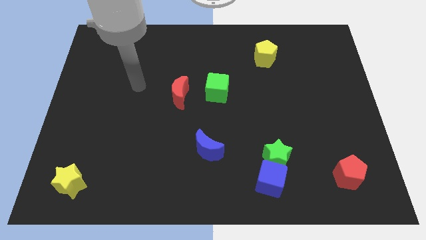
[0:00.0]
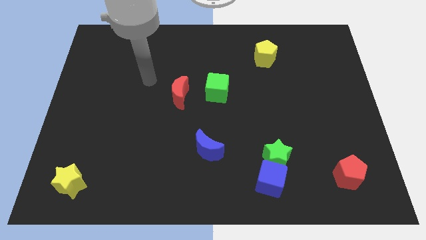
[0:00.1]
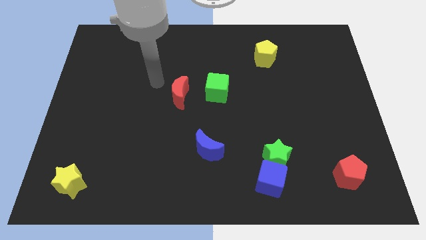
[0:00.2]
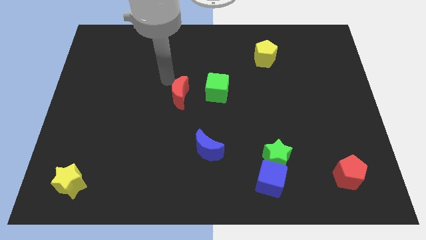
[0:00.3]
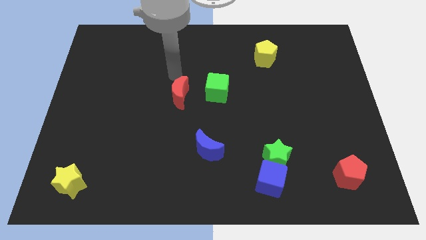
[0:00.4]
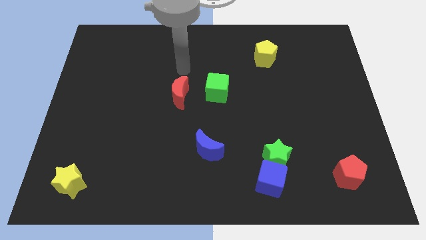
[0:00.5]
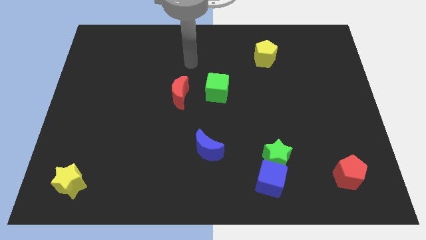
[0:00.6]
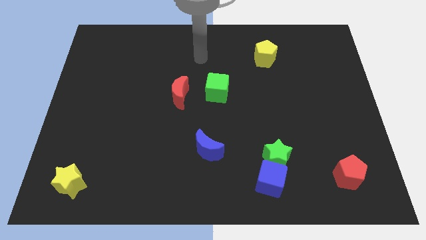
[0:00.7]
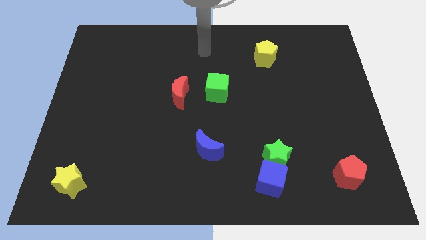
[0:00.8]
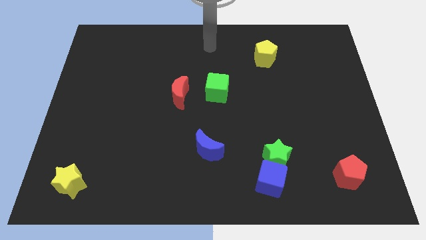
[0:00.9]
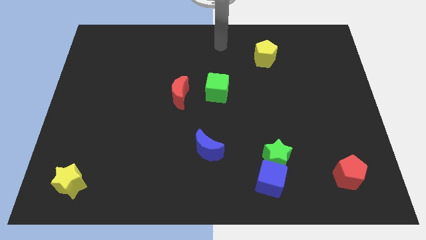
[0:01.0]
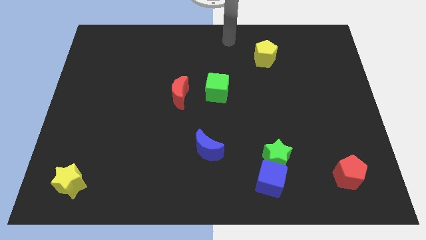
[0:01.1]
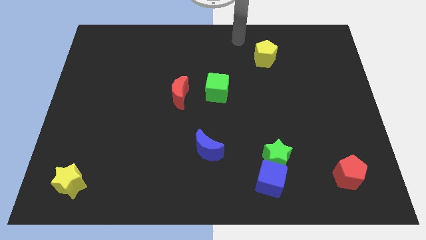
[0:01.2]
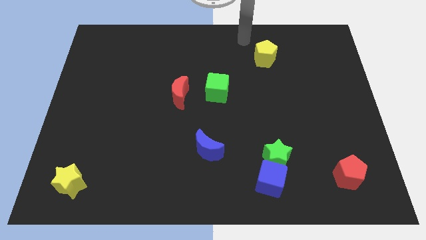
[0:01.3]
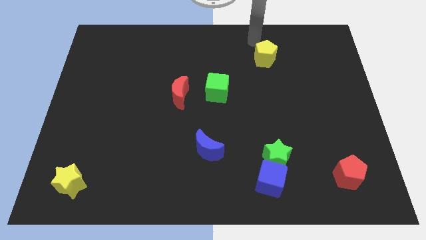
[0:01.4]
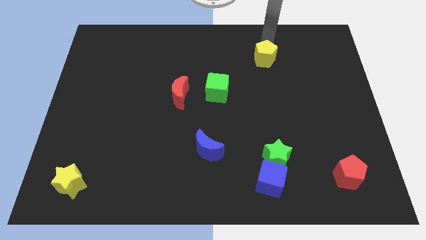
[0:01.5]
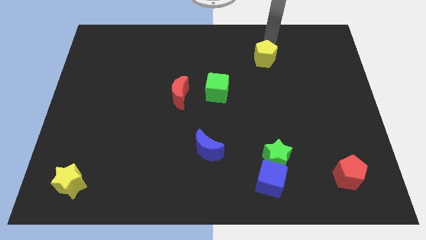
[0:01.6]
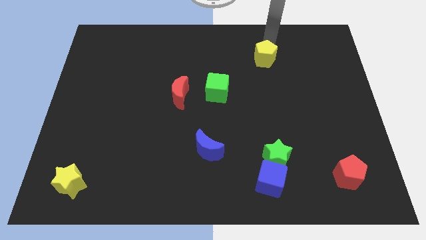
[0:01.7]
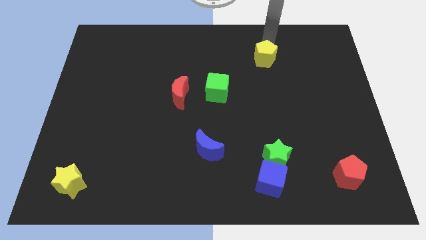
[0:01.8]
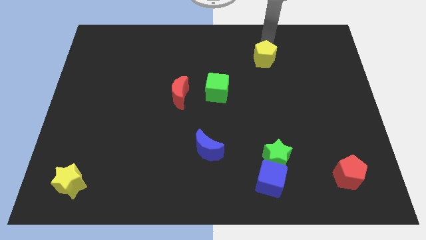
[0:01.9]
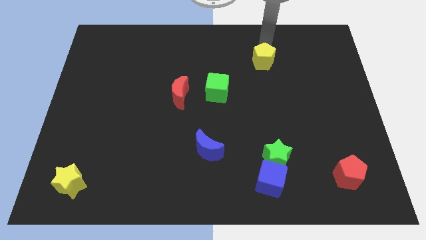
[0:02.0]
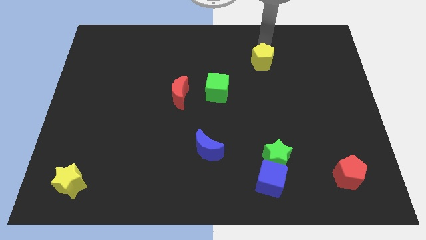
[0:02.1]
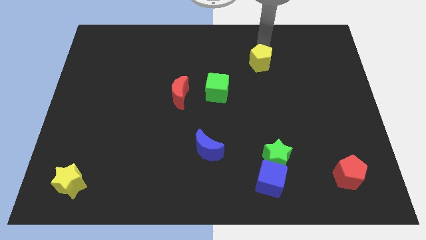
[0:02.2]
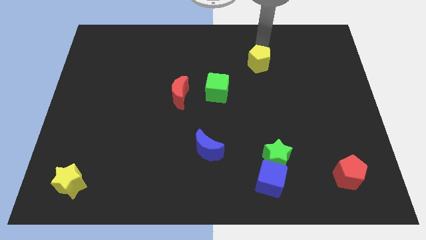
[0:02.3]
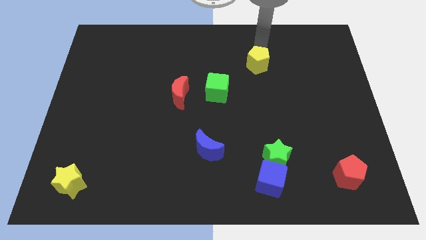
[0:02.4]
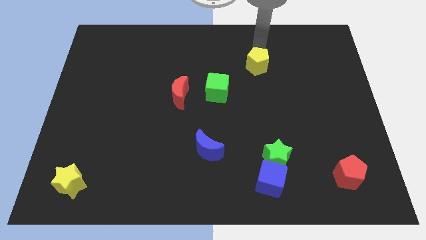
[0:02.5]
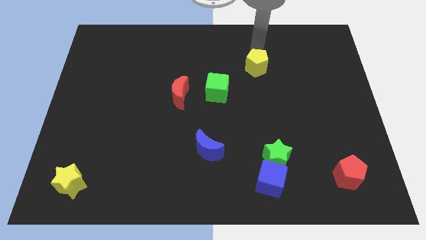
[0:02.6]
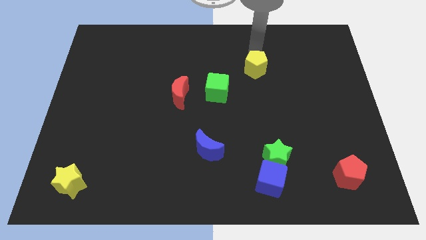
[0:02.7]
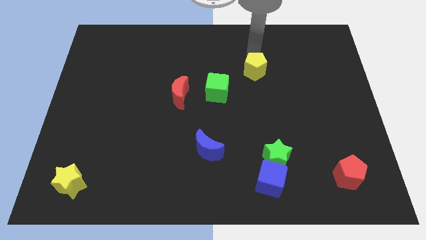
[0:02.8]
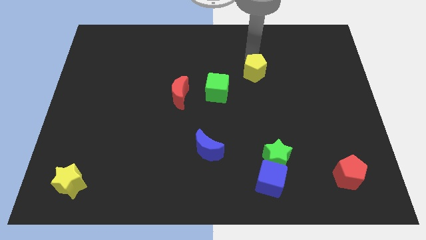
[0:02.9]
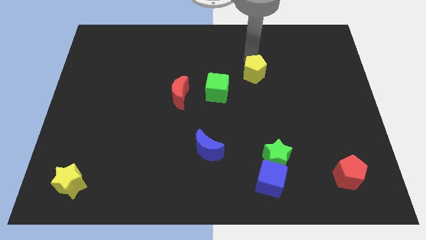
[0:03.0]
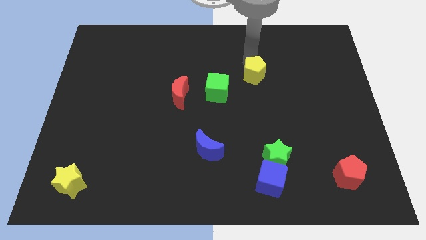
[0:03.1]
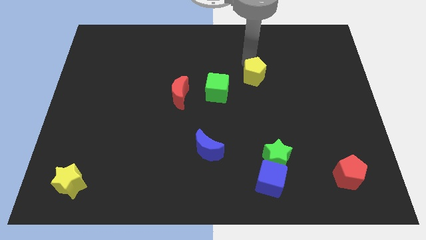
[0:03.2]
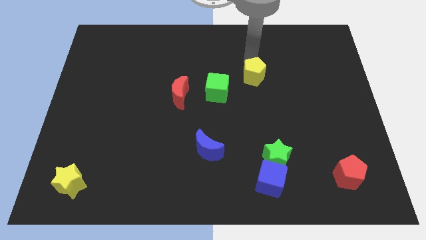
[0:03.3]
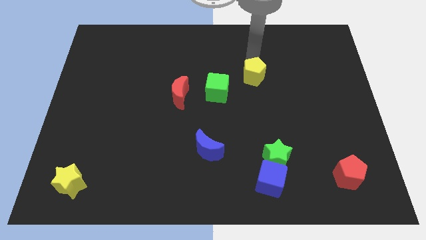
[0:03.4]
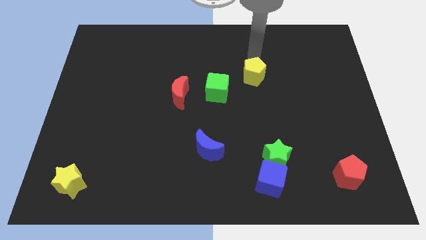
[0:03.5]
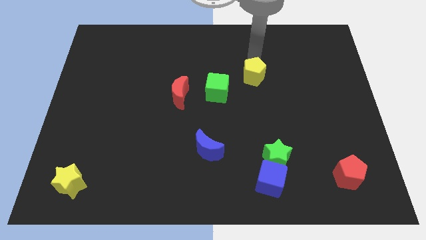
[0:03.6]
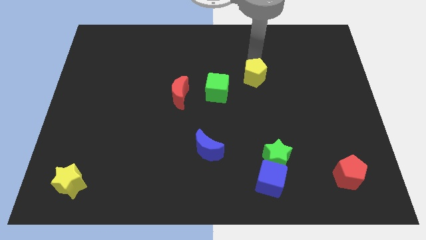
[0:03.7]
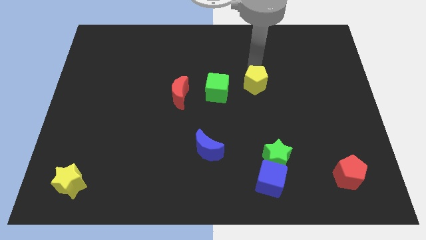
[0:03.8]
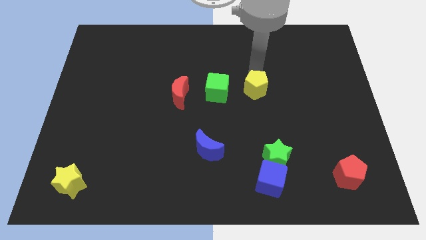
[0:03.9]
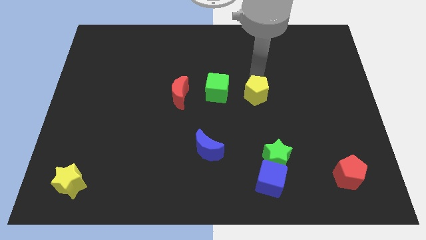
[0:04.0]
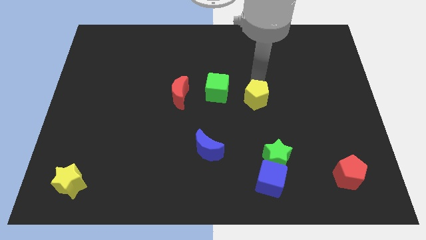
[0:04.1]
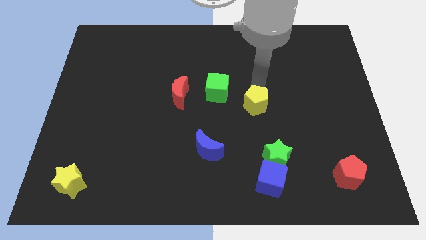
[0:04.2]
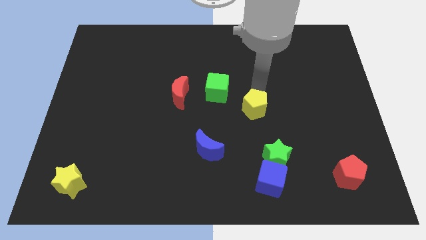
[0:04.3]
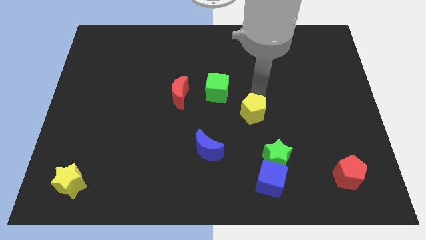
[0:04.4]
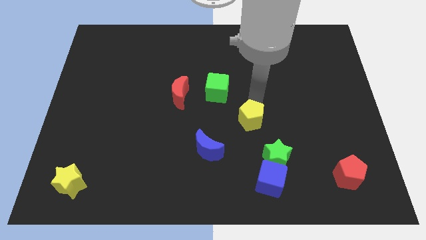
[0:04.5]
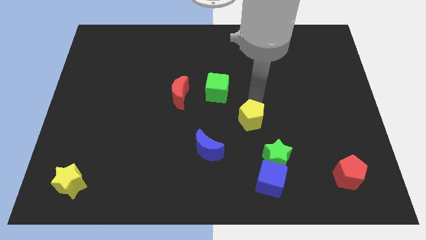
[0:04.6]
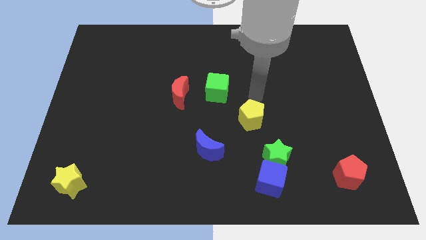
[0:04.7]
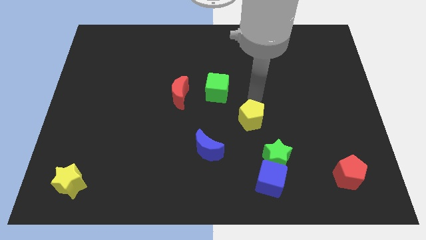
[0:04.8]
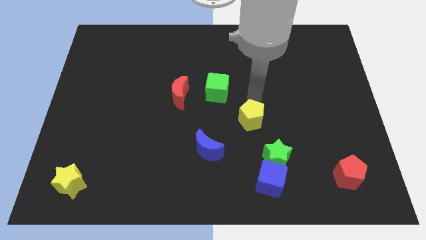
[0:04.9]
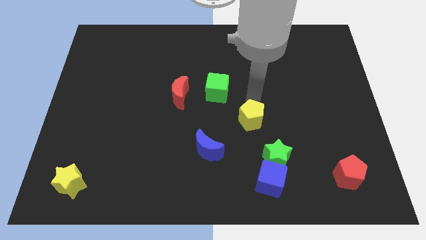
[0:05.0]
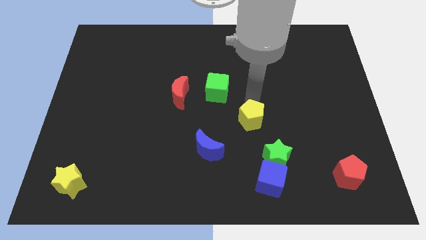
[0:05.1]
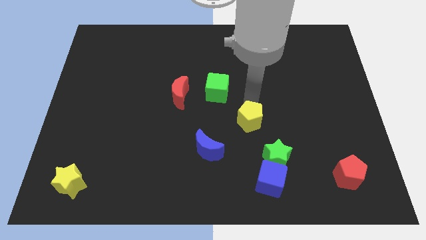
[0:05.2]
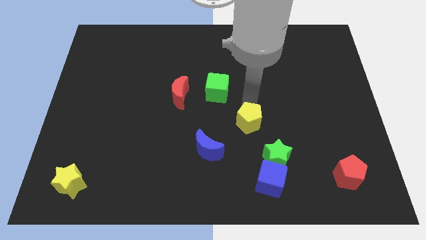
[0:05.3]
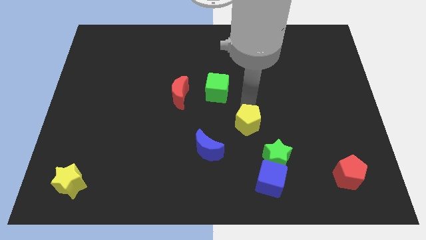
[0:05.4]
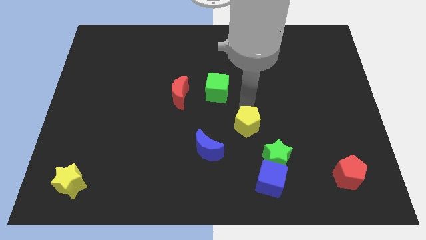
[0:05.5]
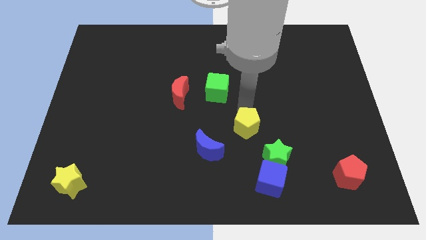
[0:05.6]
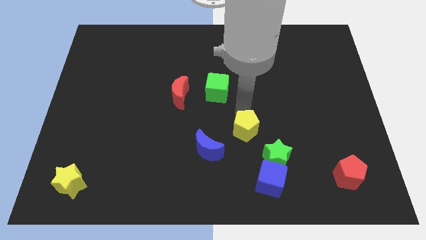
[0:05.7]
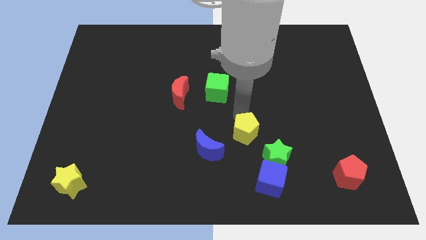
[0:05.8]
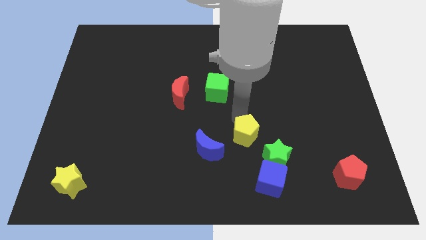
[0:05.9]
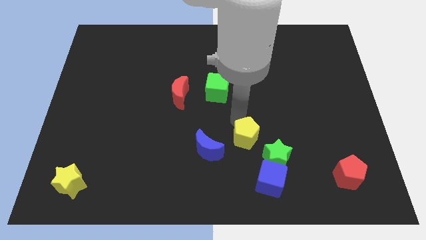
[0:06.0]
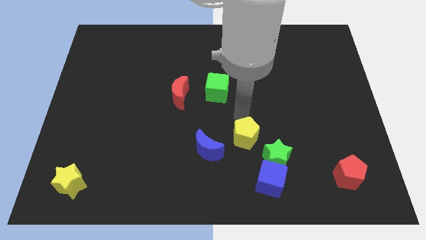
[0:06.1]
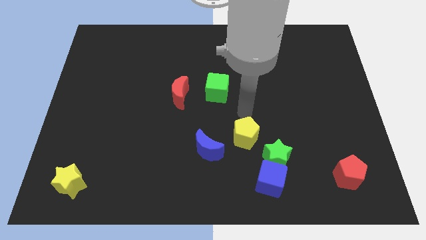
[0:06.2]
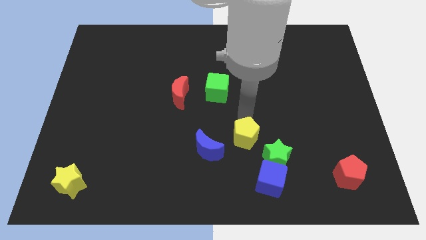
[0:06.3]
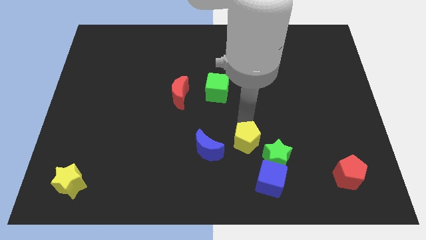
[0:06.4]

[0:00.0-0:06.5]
push the yellow pentagon to the top left side of the blue cube

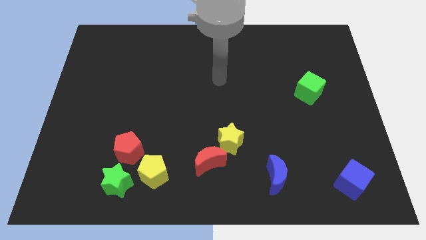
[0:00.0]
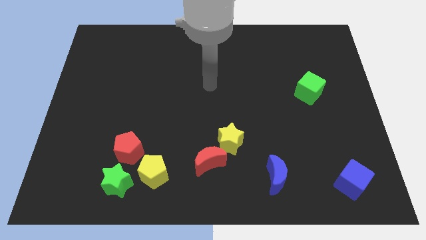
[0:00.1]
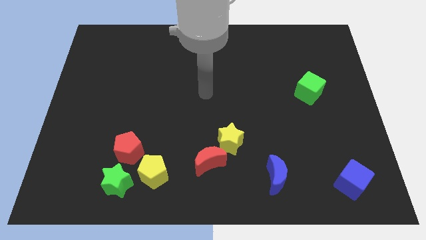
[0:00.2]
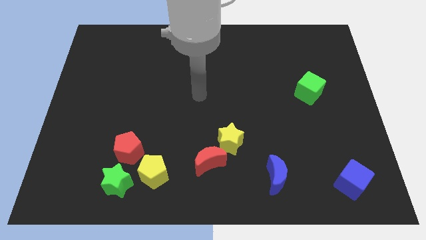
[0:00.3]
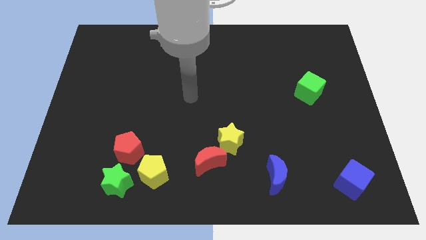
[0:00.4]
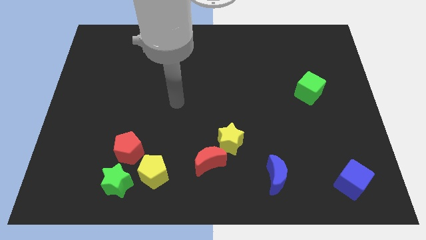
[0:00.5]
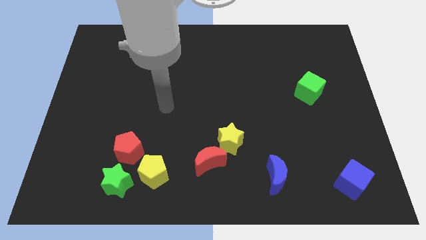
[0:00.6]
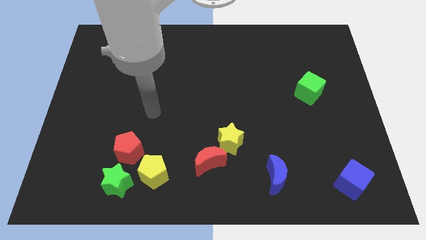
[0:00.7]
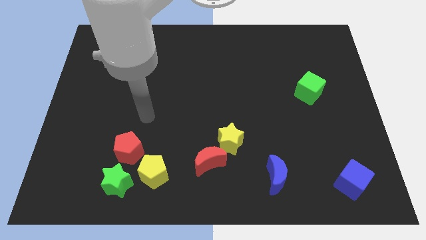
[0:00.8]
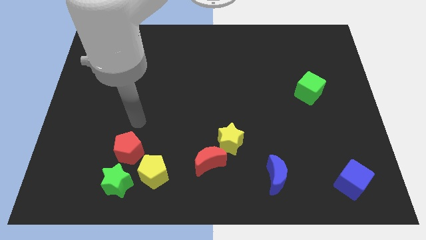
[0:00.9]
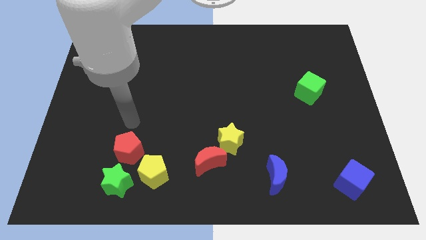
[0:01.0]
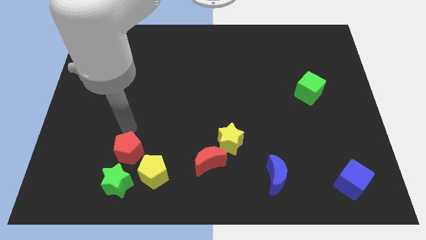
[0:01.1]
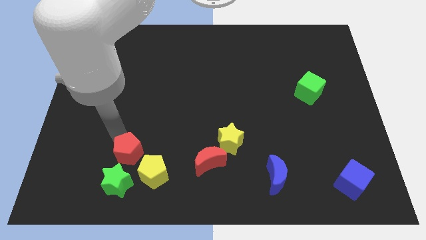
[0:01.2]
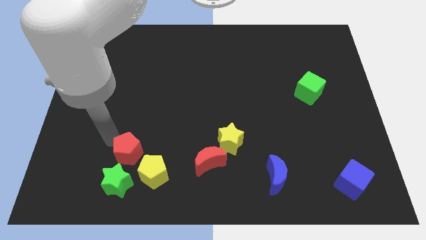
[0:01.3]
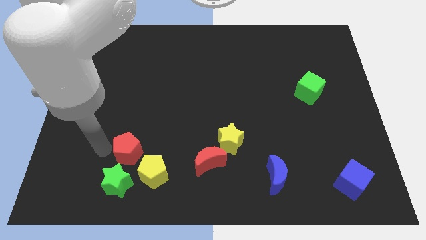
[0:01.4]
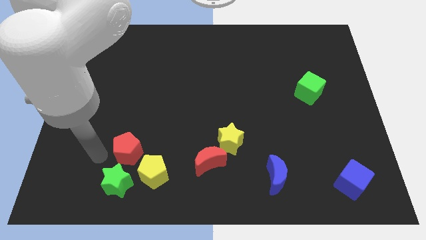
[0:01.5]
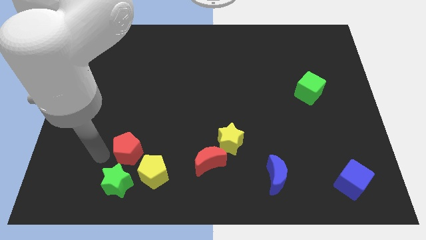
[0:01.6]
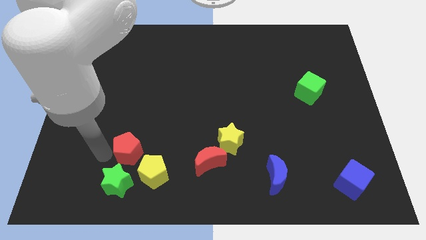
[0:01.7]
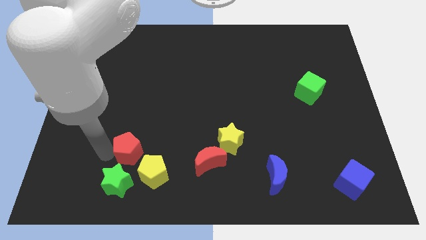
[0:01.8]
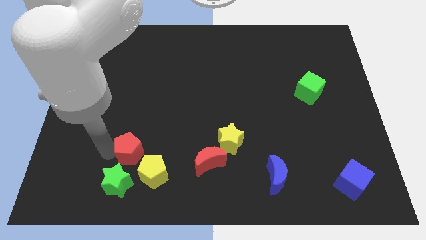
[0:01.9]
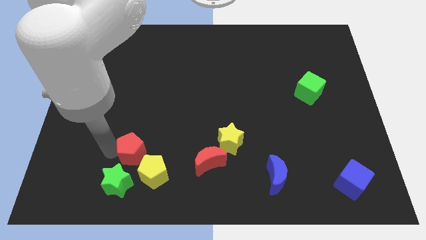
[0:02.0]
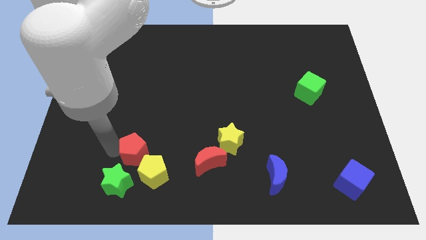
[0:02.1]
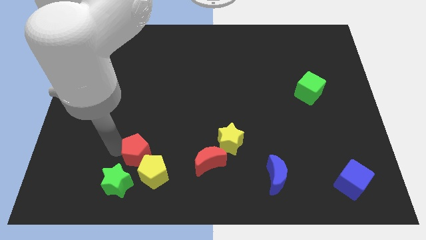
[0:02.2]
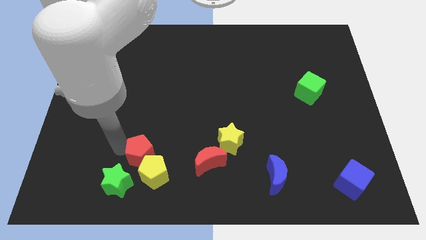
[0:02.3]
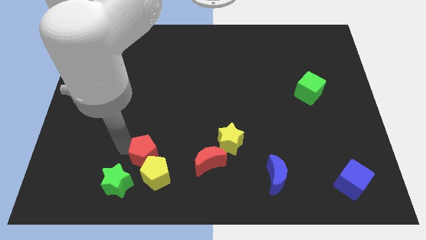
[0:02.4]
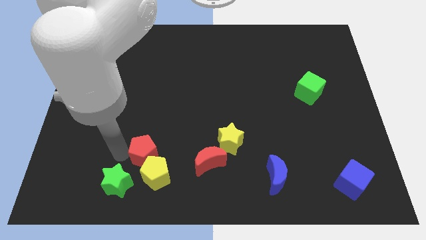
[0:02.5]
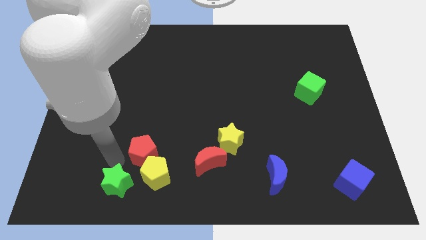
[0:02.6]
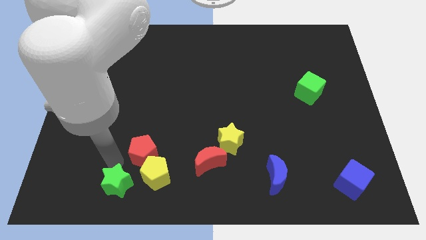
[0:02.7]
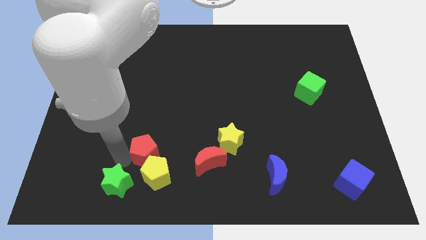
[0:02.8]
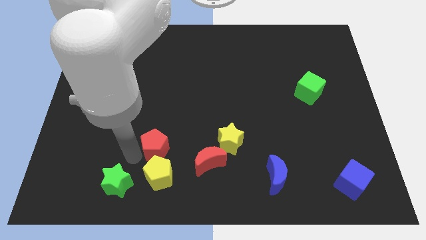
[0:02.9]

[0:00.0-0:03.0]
push the red pentagon just left of the yellow star
